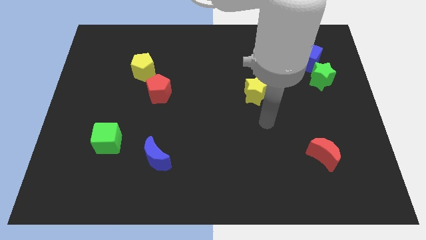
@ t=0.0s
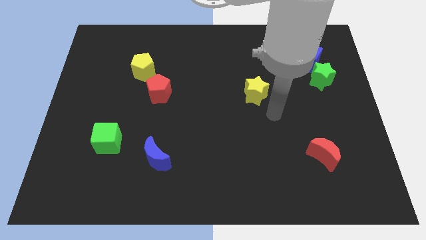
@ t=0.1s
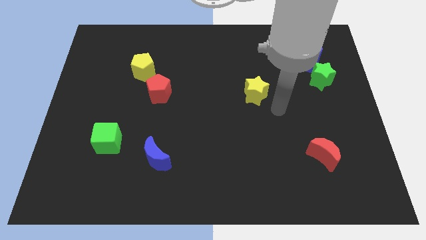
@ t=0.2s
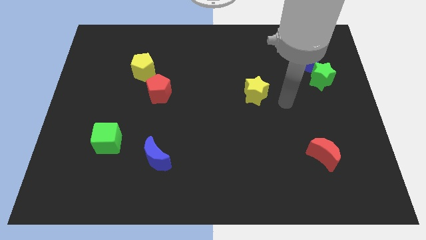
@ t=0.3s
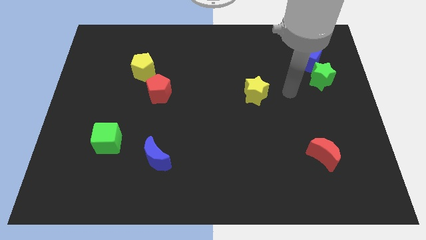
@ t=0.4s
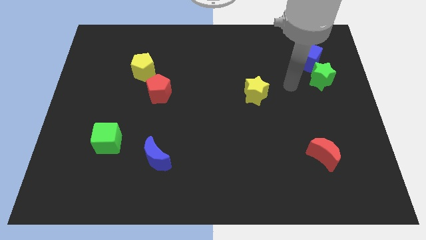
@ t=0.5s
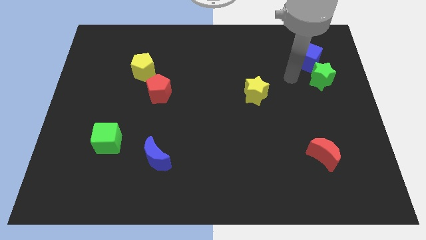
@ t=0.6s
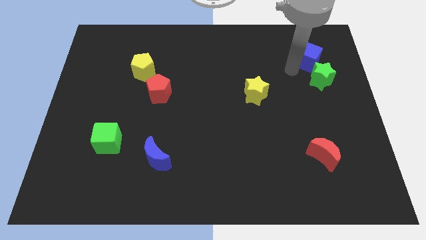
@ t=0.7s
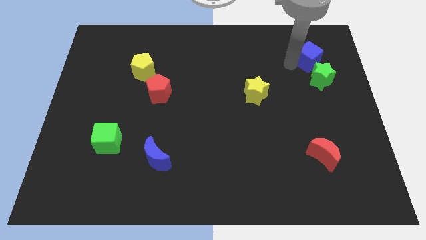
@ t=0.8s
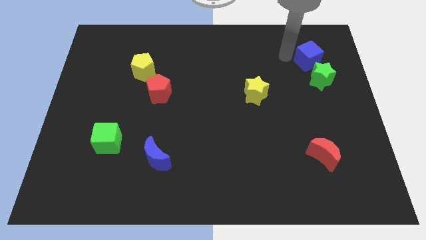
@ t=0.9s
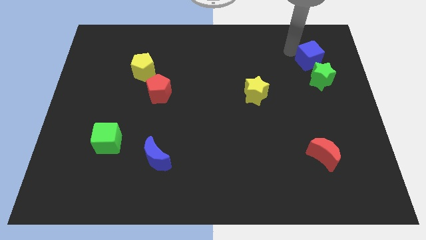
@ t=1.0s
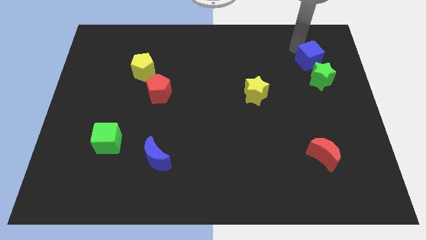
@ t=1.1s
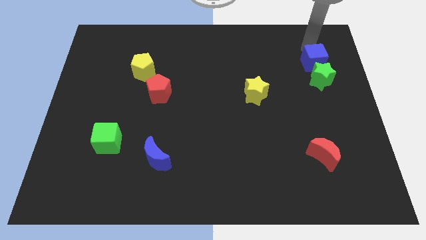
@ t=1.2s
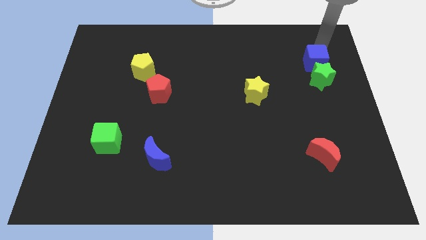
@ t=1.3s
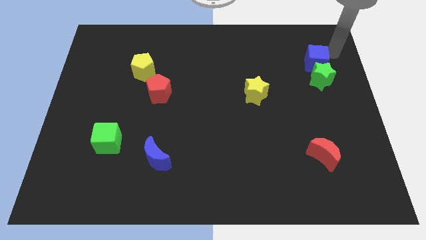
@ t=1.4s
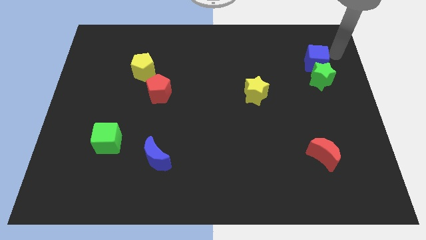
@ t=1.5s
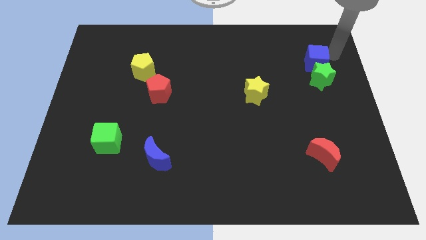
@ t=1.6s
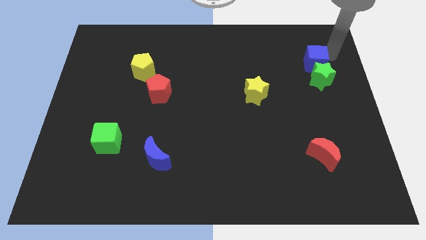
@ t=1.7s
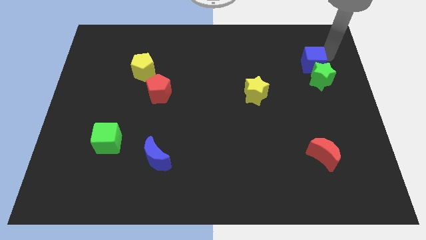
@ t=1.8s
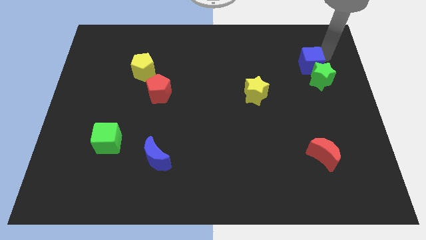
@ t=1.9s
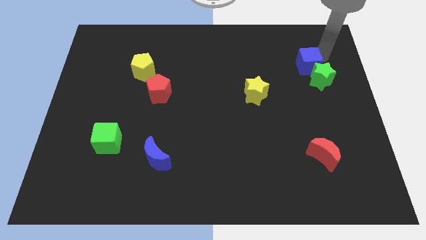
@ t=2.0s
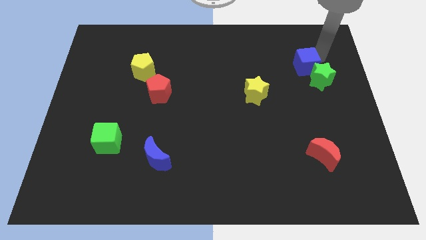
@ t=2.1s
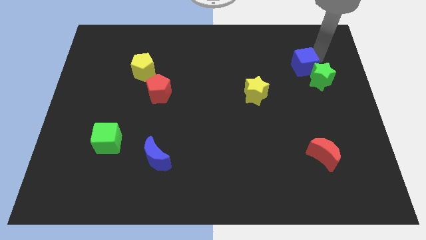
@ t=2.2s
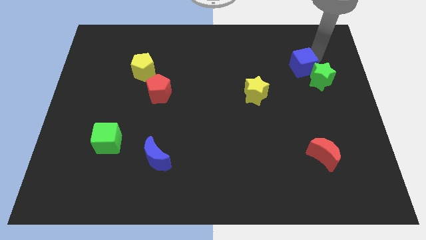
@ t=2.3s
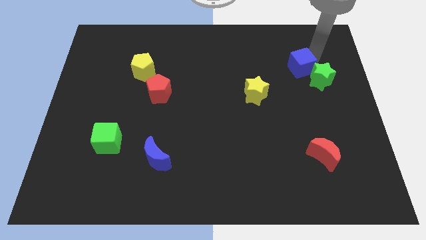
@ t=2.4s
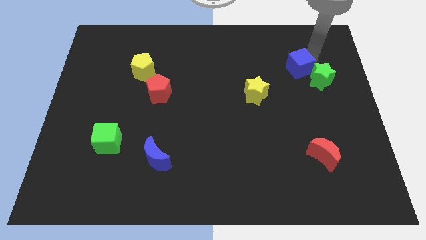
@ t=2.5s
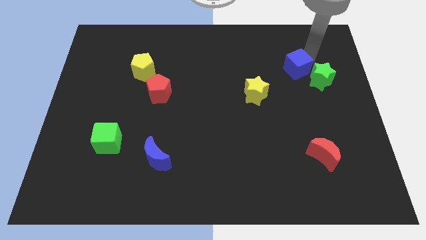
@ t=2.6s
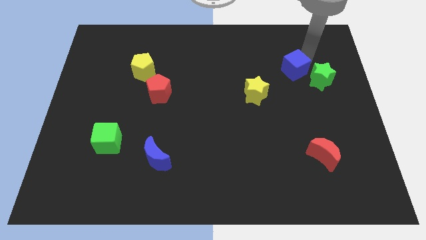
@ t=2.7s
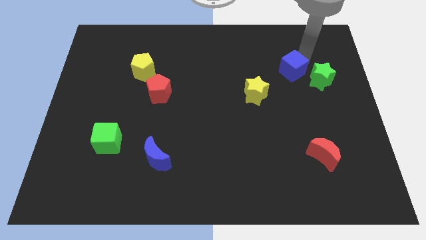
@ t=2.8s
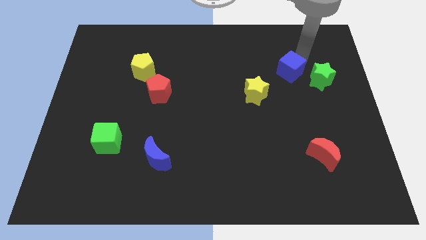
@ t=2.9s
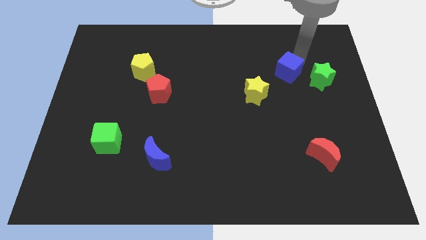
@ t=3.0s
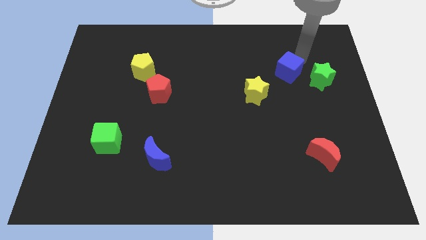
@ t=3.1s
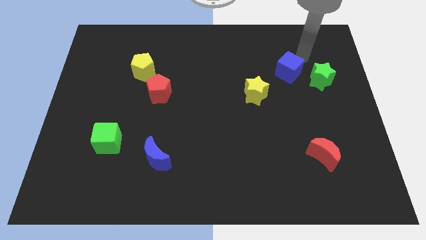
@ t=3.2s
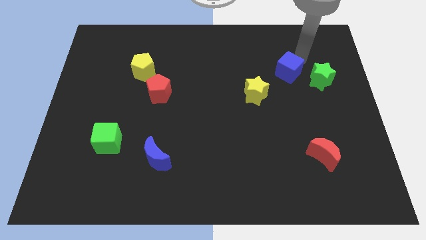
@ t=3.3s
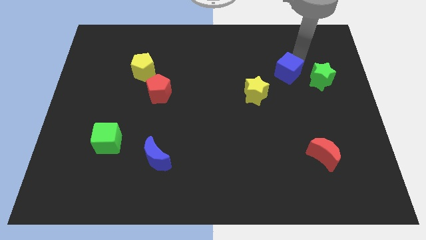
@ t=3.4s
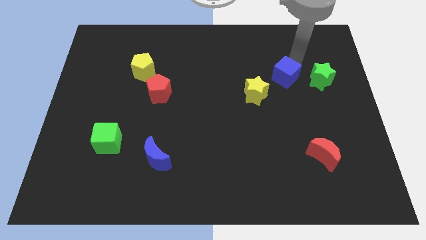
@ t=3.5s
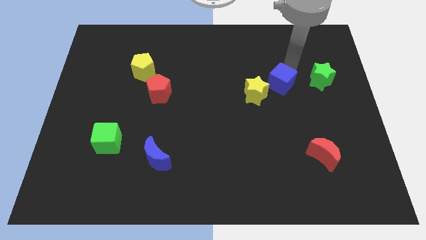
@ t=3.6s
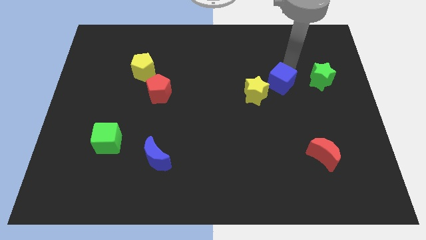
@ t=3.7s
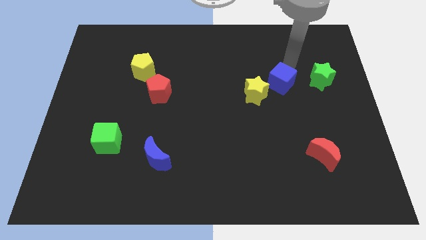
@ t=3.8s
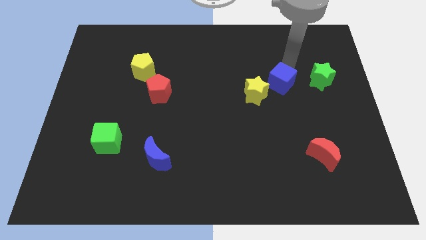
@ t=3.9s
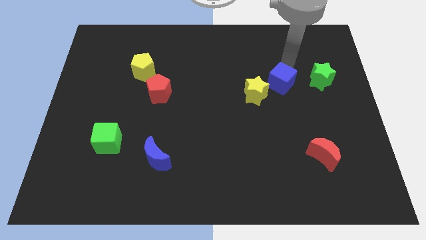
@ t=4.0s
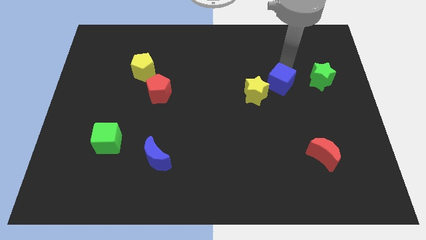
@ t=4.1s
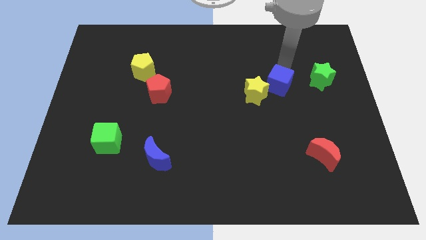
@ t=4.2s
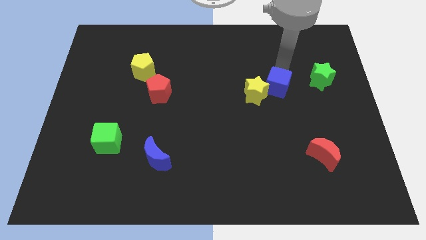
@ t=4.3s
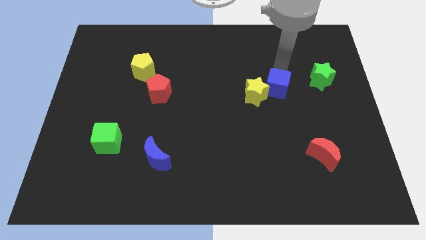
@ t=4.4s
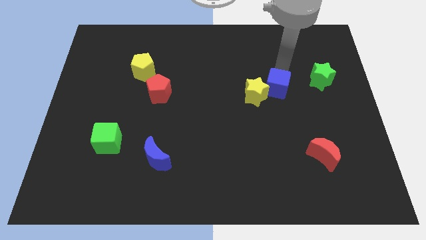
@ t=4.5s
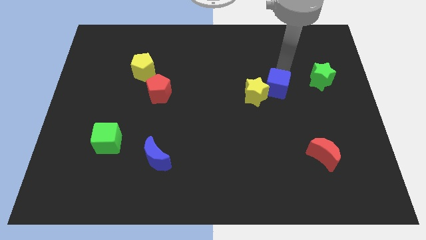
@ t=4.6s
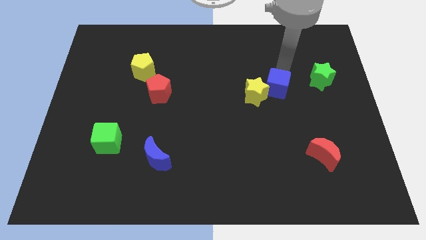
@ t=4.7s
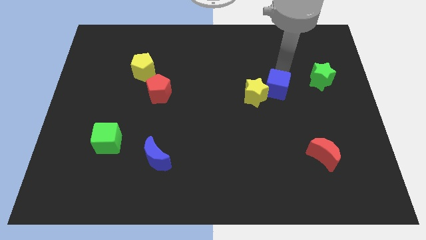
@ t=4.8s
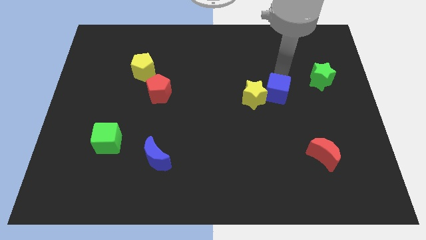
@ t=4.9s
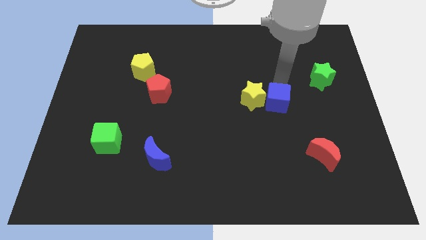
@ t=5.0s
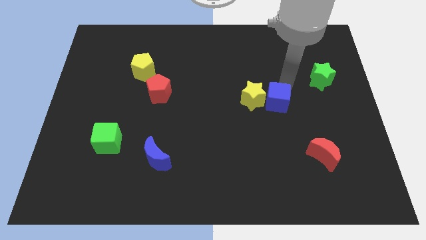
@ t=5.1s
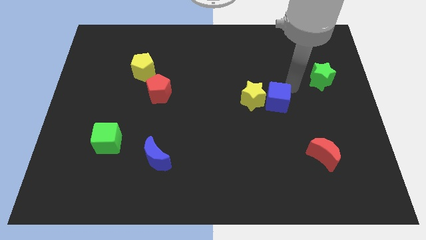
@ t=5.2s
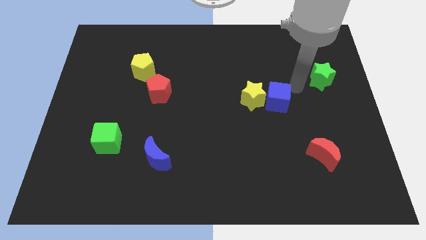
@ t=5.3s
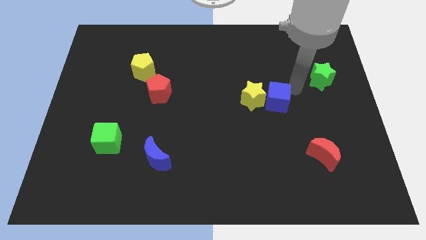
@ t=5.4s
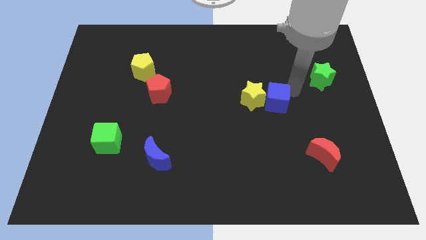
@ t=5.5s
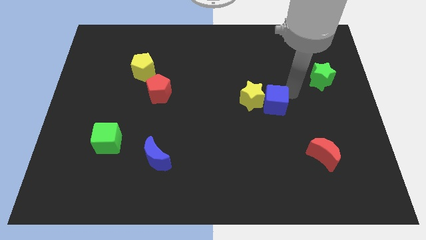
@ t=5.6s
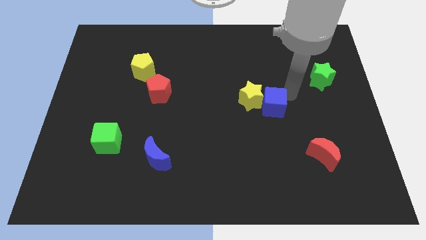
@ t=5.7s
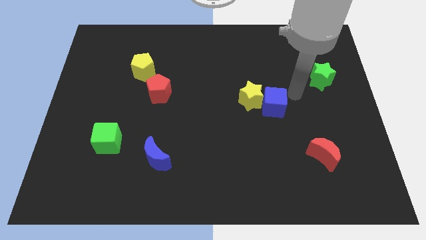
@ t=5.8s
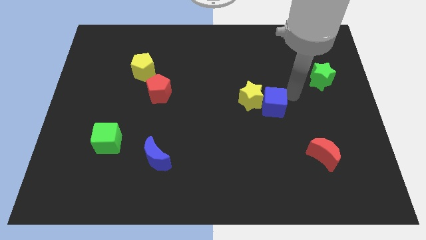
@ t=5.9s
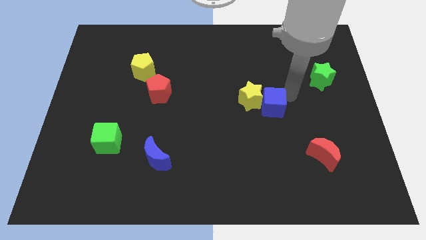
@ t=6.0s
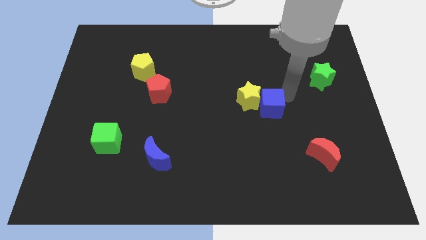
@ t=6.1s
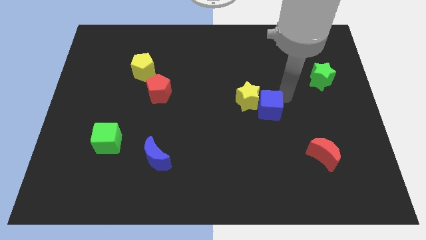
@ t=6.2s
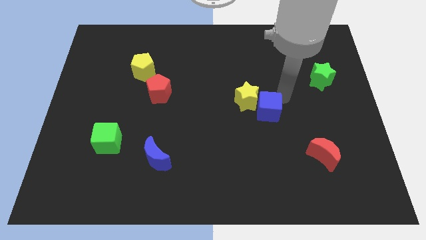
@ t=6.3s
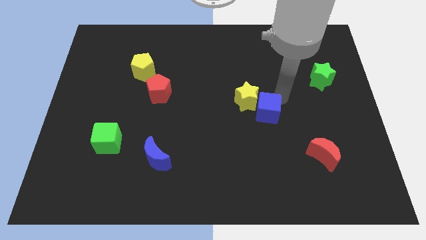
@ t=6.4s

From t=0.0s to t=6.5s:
slide the blue cube downwards and to the left

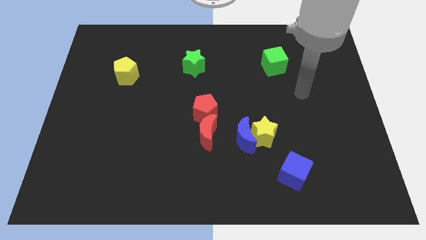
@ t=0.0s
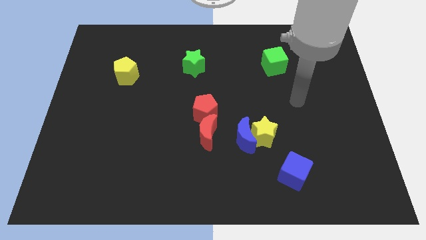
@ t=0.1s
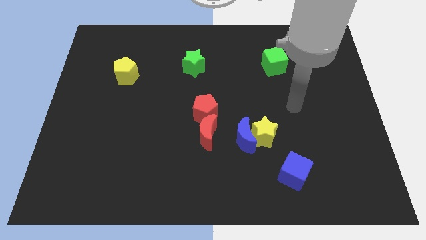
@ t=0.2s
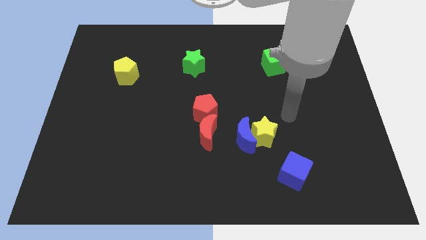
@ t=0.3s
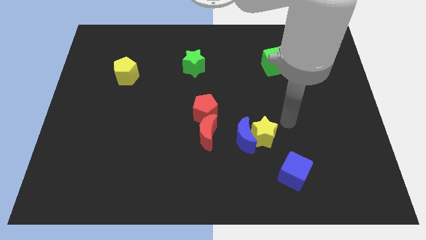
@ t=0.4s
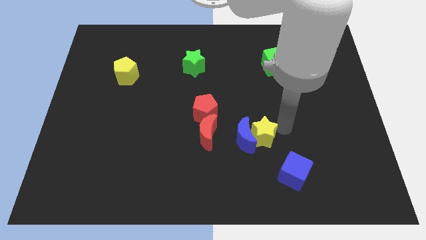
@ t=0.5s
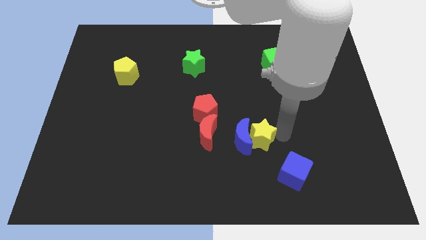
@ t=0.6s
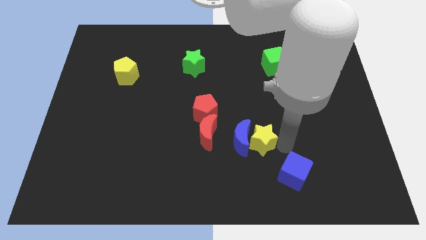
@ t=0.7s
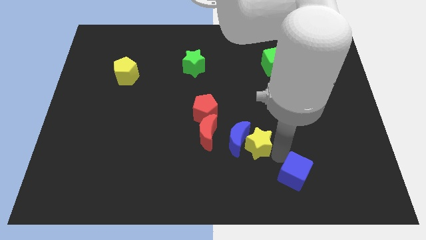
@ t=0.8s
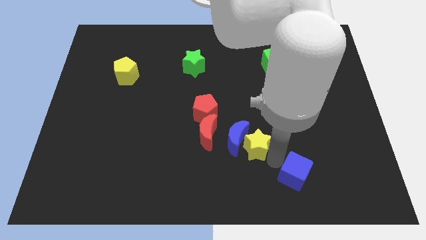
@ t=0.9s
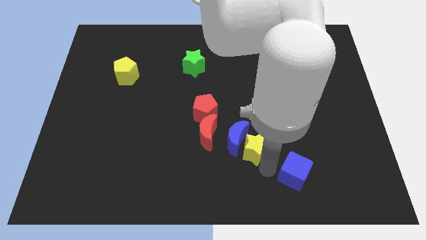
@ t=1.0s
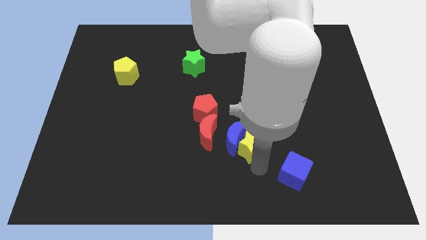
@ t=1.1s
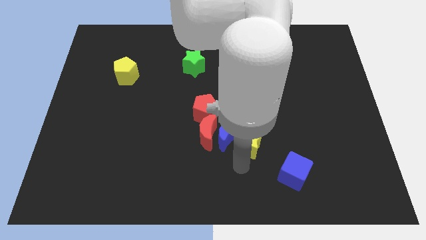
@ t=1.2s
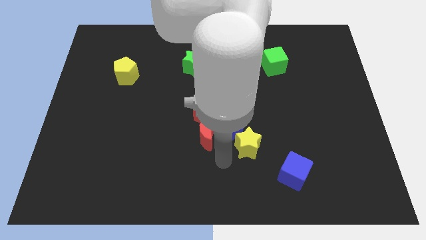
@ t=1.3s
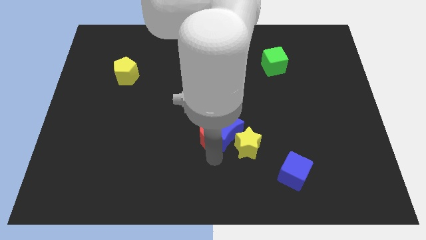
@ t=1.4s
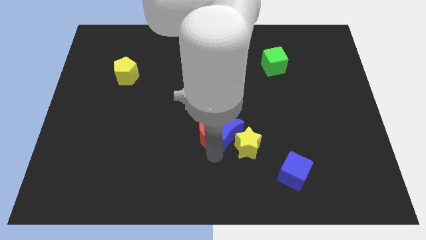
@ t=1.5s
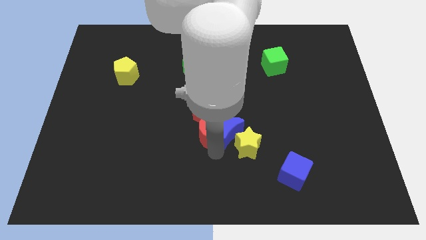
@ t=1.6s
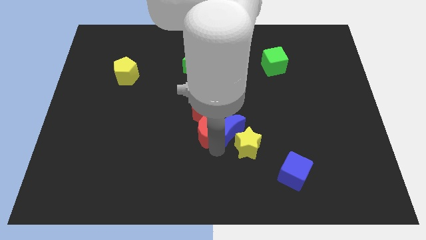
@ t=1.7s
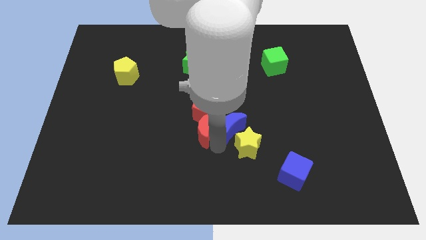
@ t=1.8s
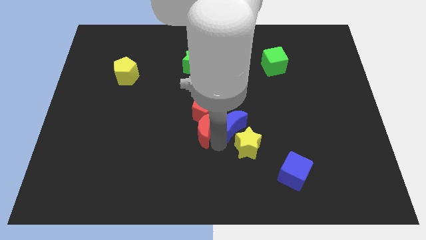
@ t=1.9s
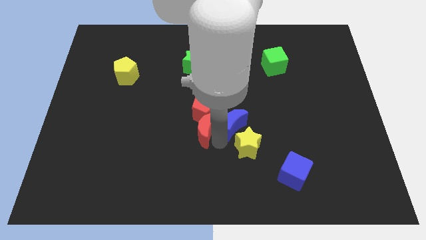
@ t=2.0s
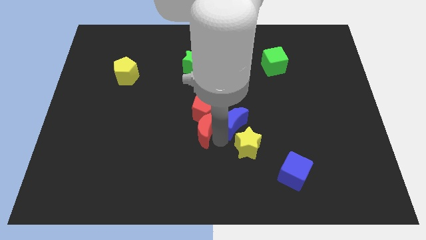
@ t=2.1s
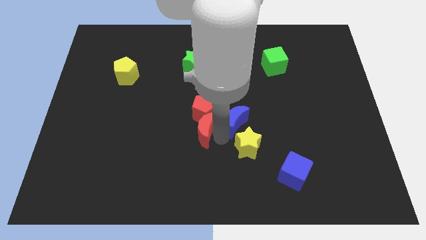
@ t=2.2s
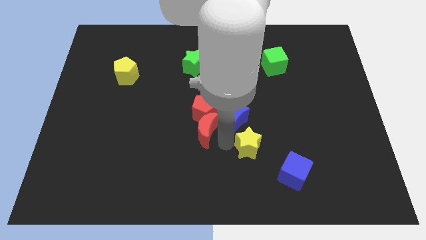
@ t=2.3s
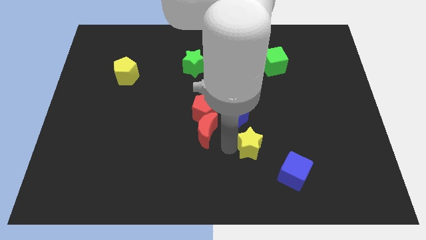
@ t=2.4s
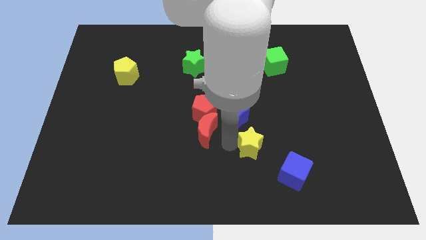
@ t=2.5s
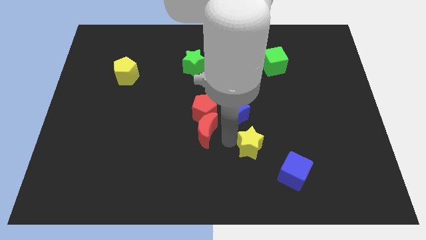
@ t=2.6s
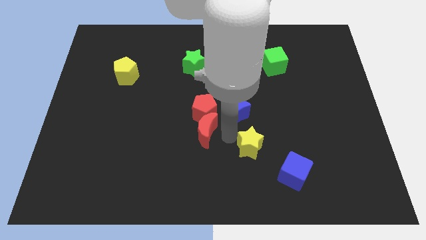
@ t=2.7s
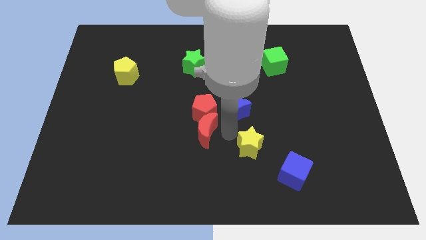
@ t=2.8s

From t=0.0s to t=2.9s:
slide the blue moon up slightly
